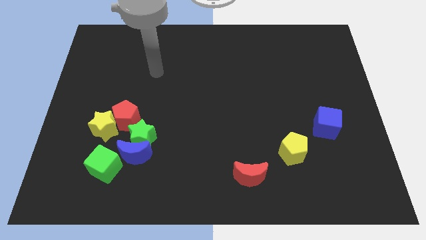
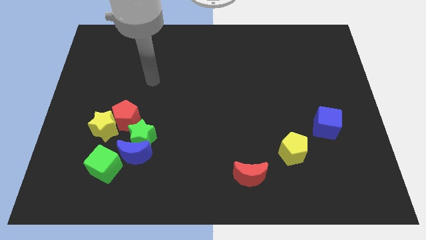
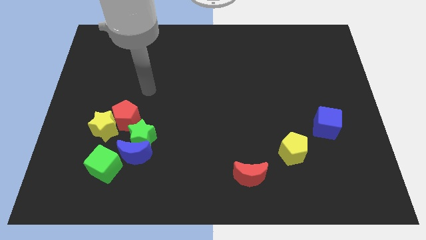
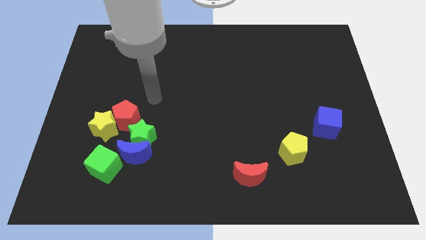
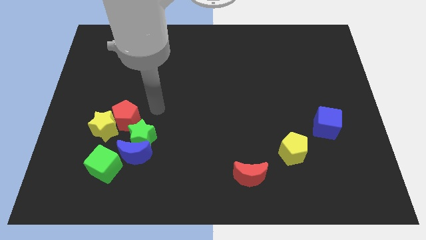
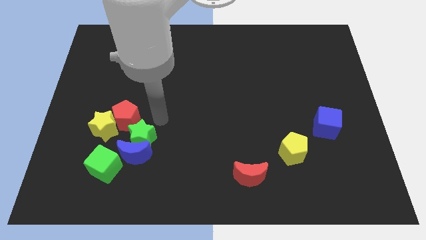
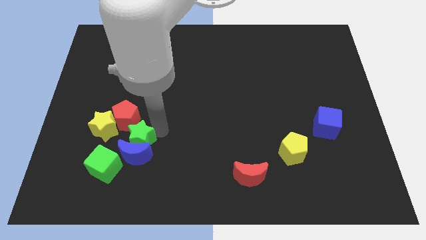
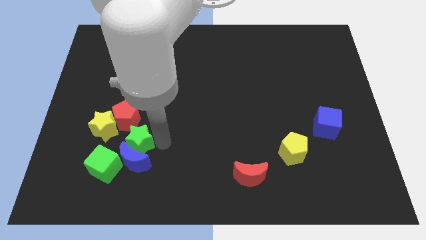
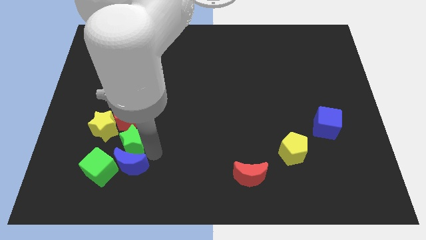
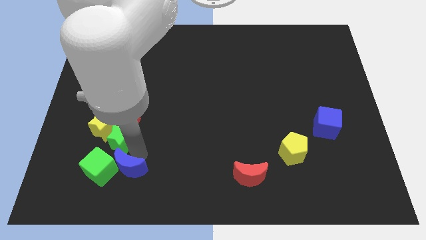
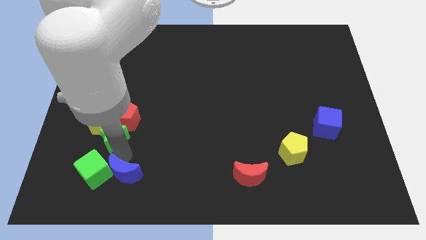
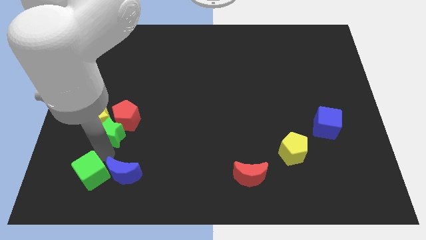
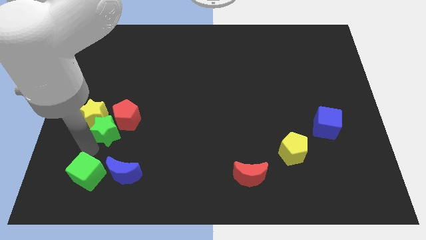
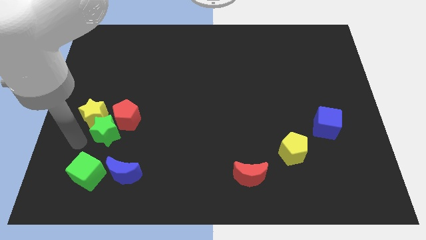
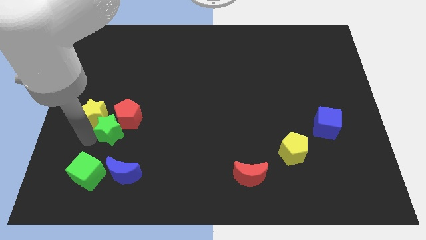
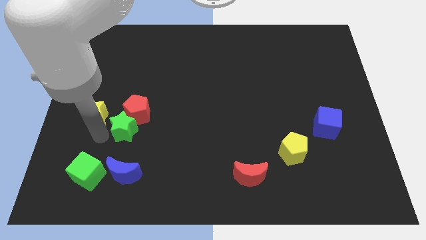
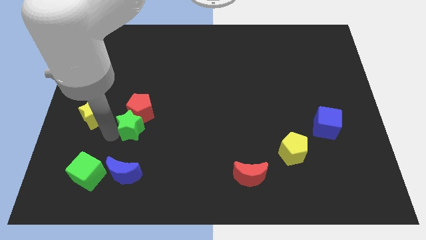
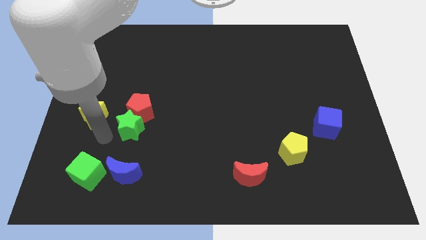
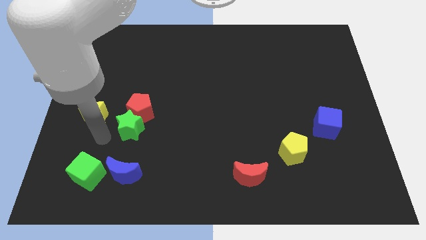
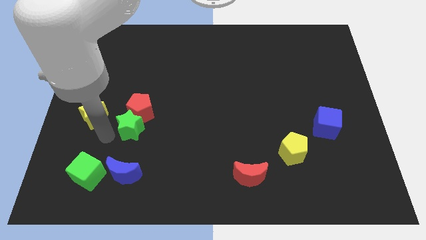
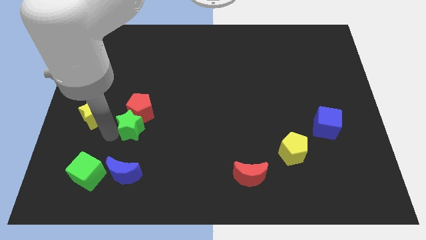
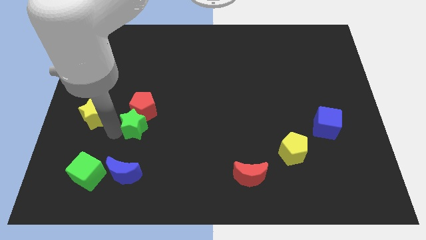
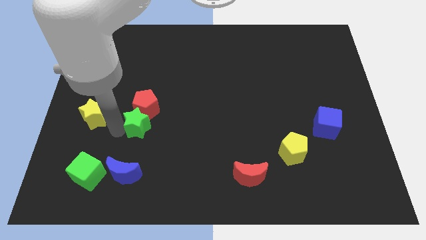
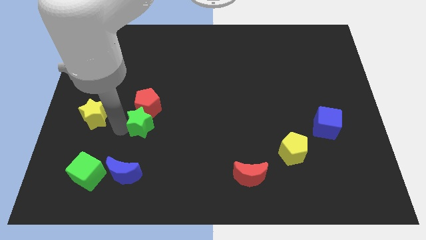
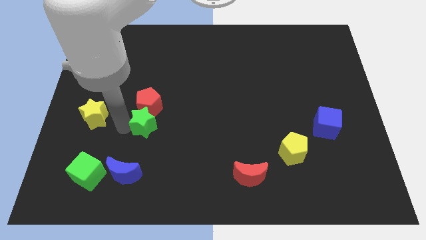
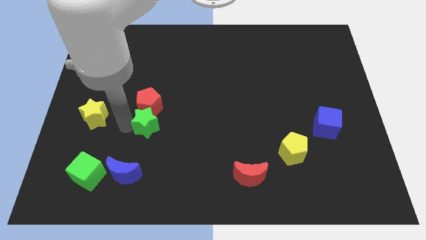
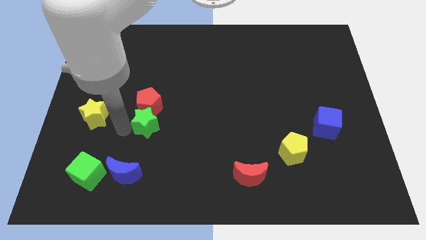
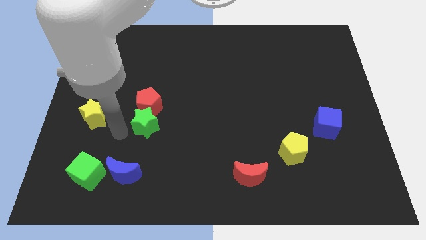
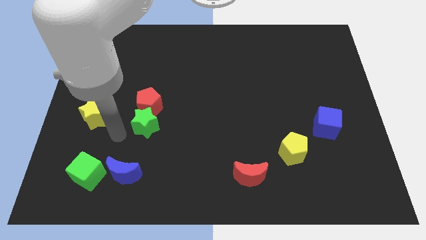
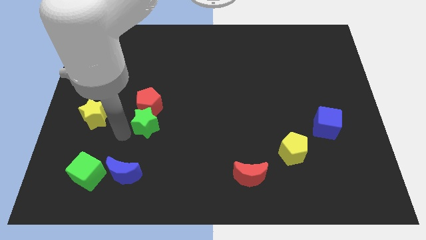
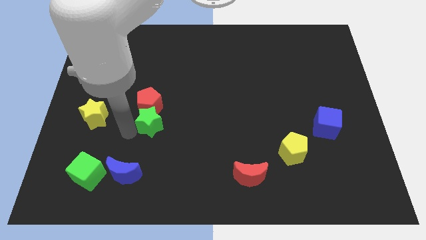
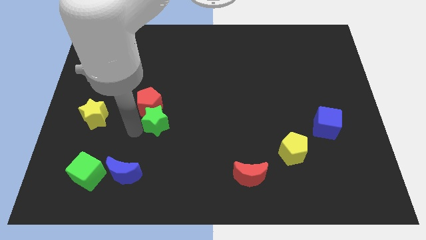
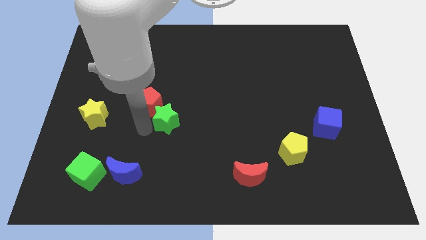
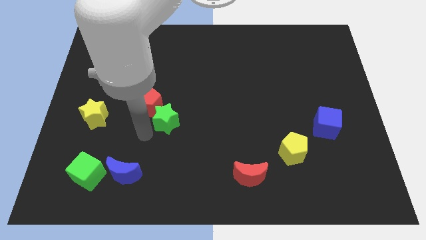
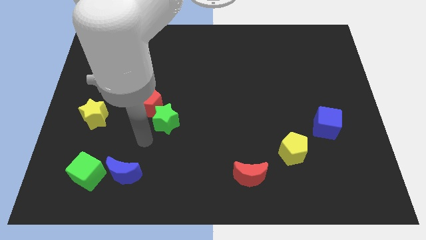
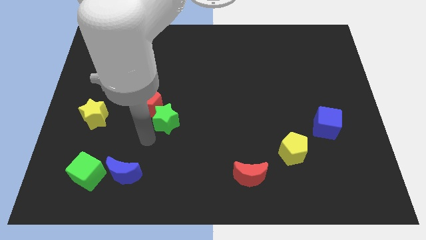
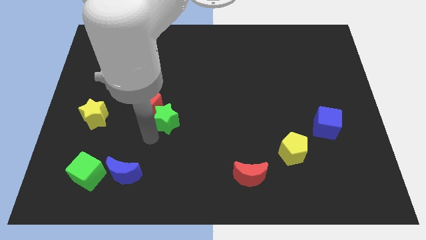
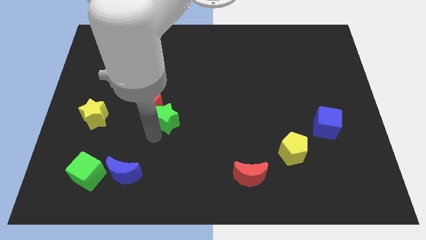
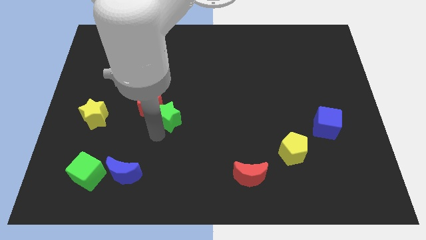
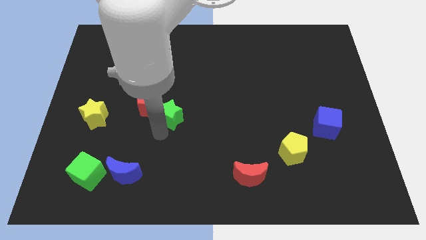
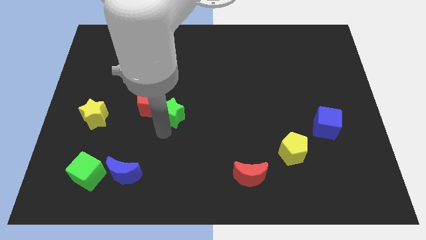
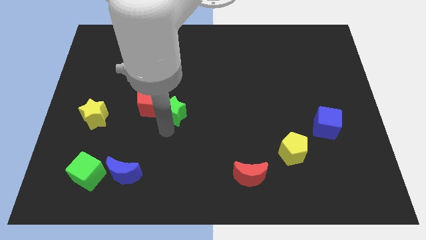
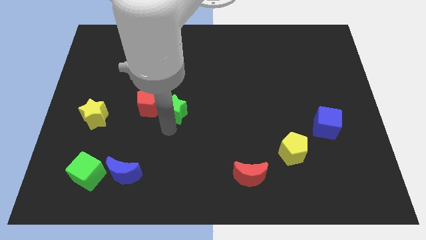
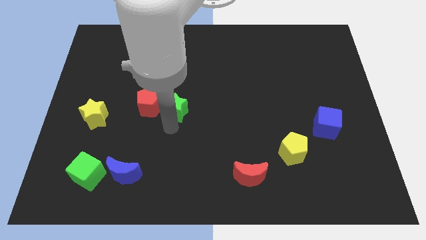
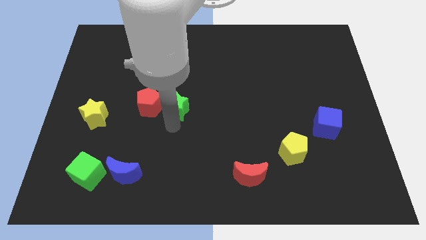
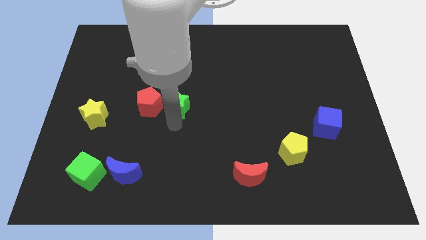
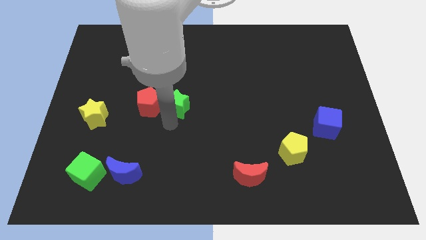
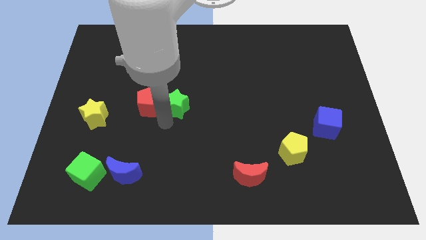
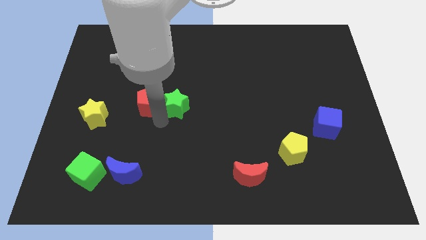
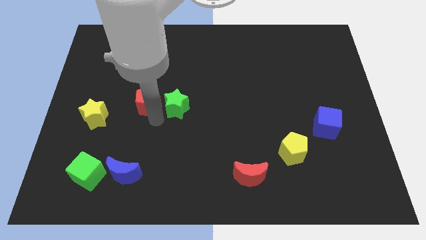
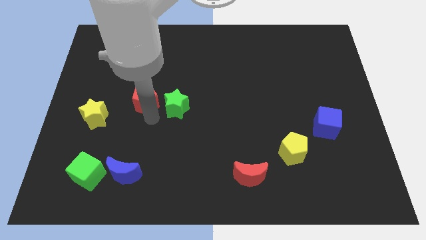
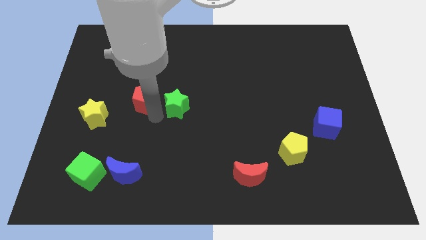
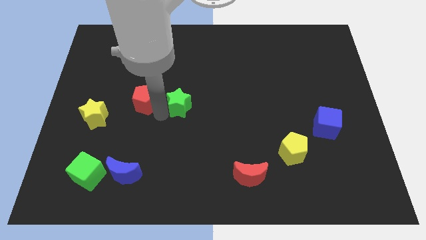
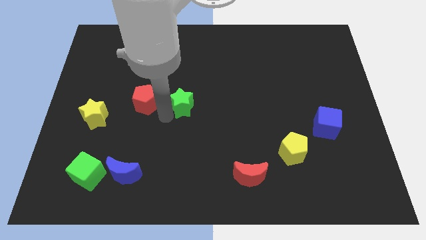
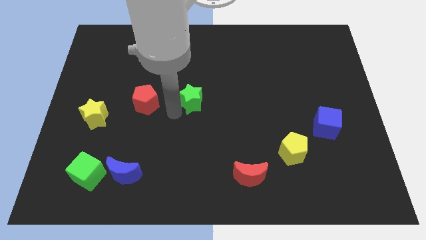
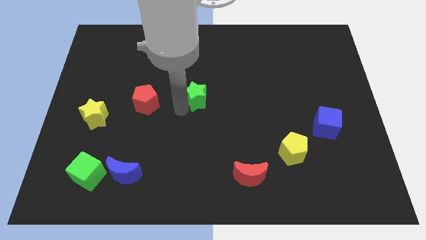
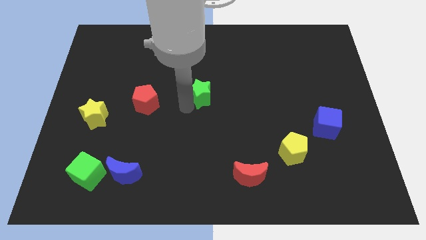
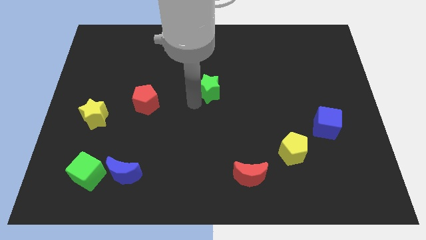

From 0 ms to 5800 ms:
push the green star upwards and to the right

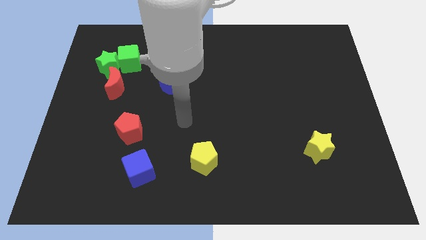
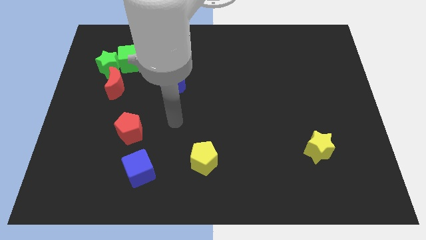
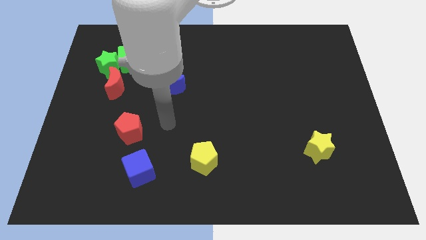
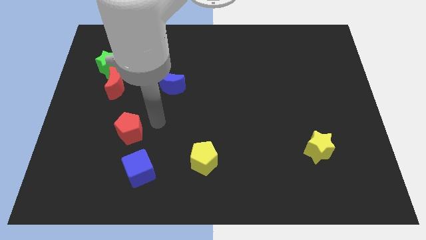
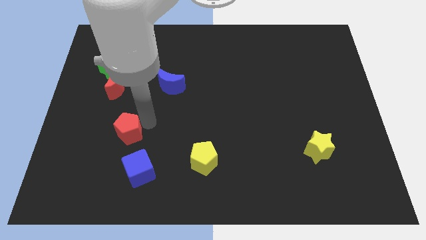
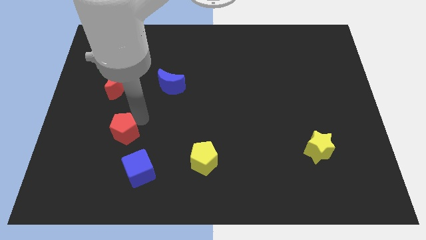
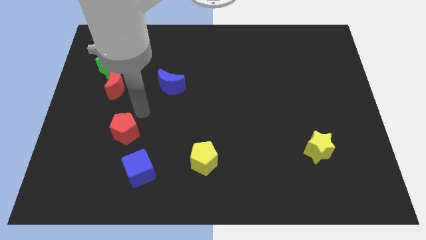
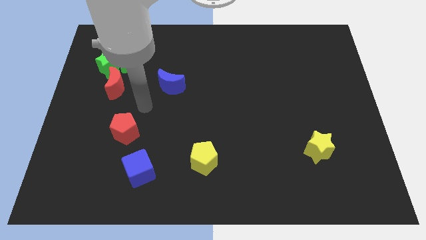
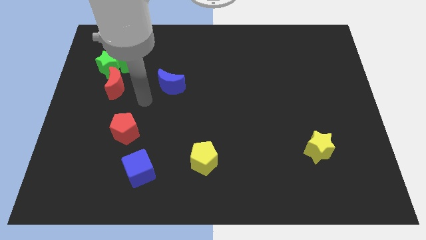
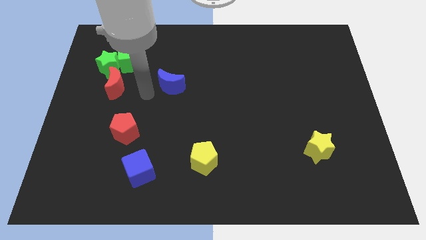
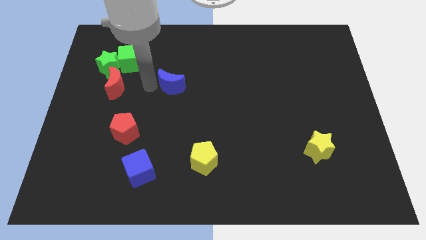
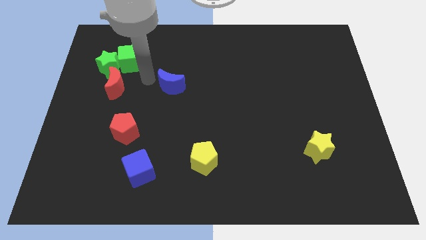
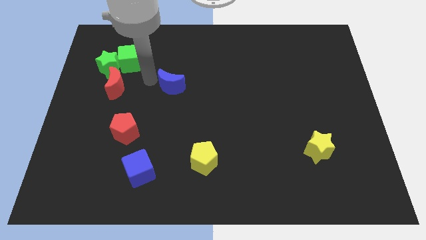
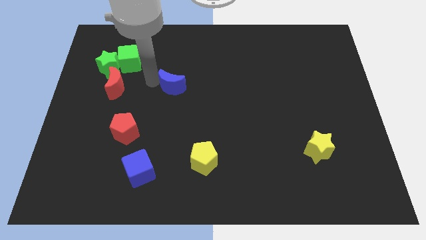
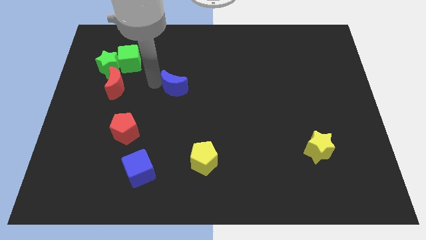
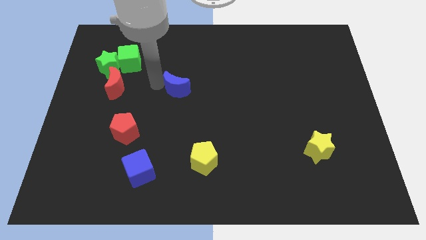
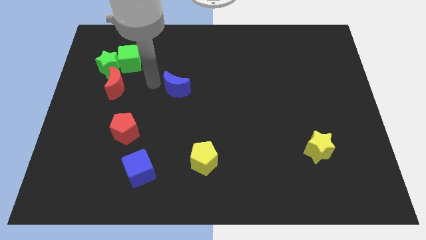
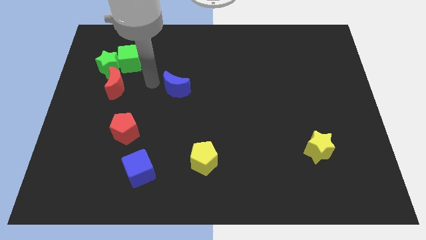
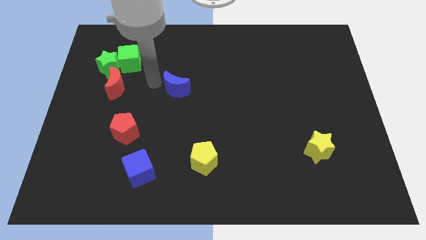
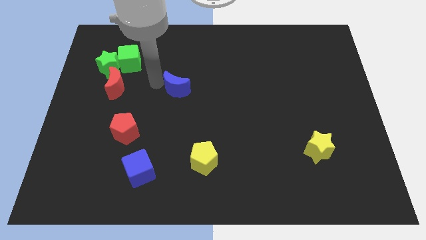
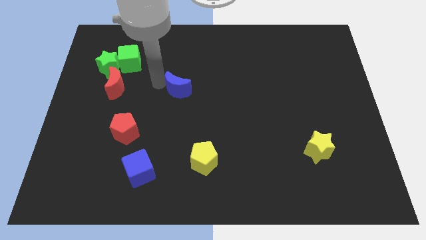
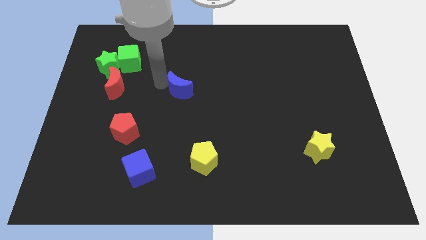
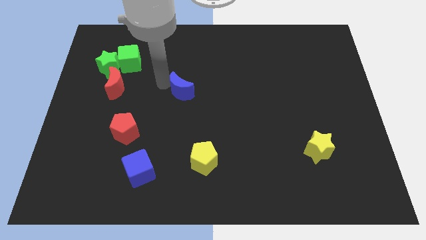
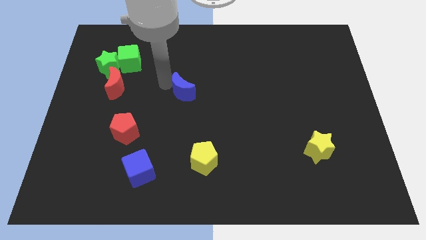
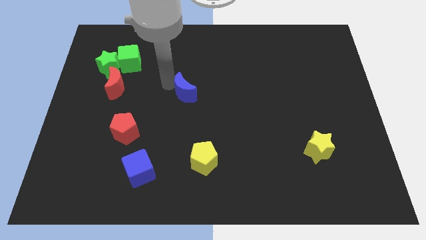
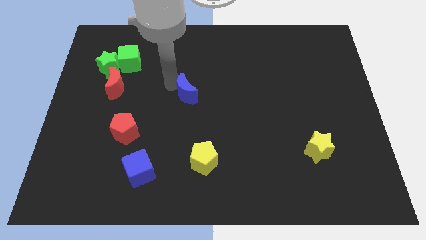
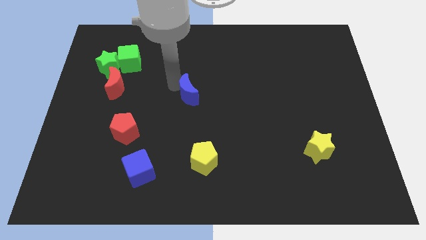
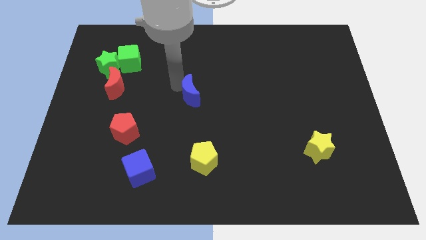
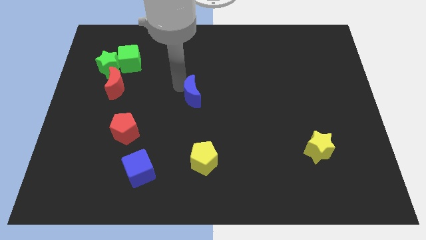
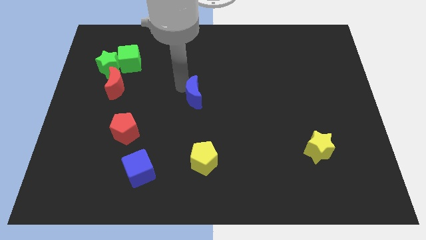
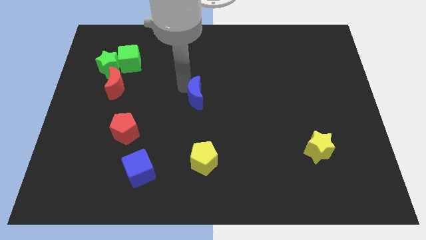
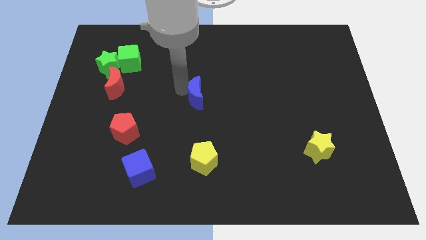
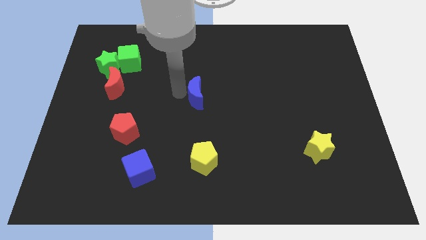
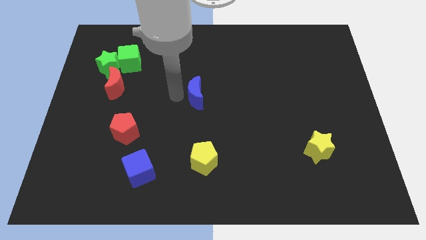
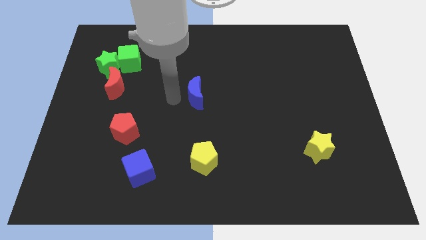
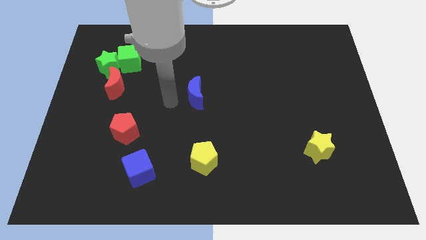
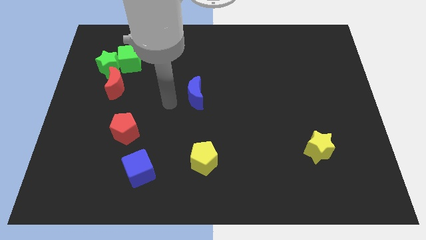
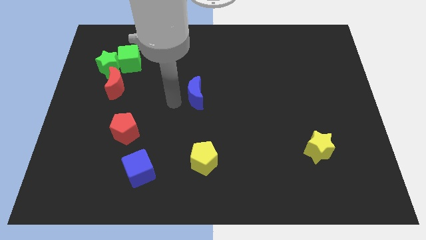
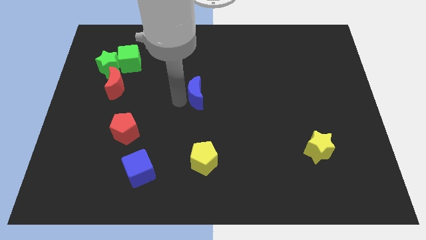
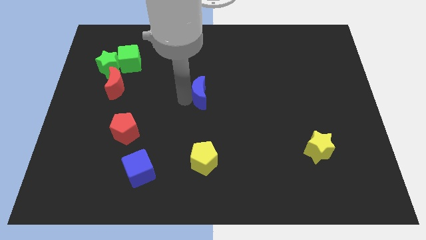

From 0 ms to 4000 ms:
move the blue moon a little bit to the right
